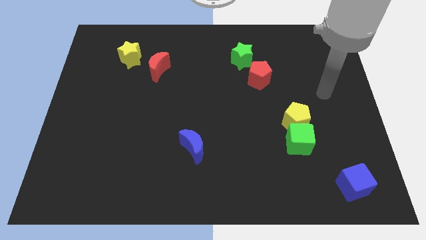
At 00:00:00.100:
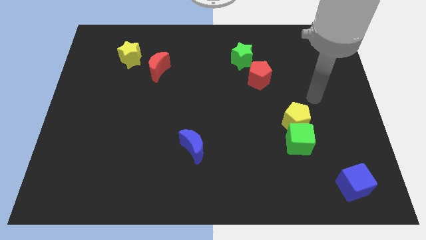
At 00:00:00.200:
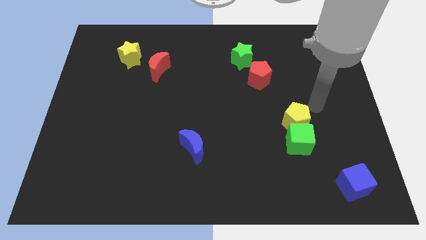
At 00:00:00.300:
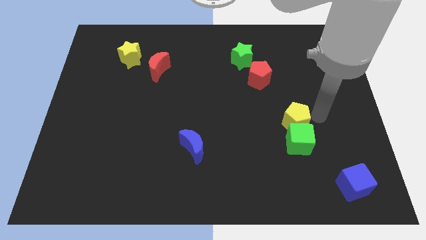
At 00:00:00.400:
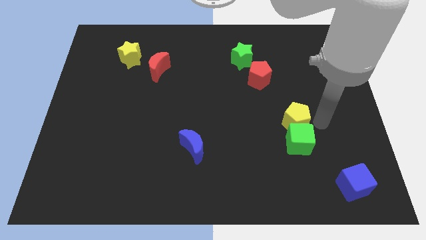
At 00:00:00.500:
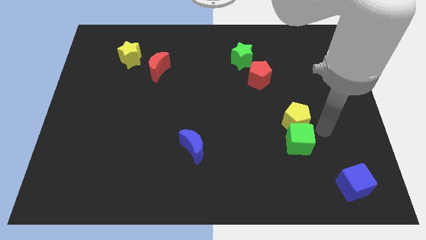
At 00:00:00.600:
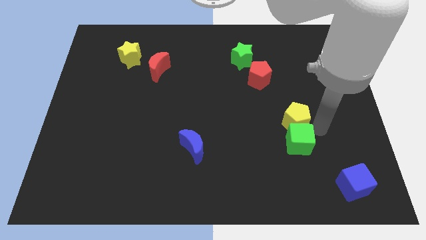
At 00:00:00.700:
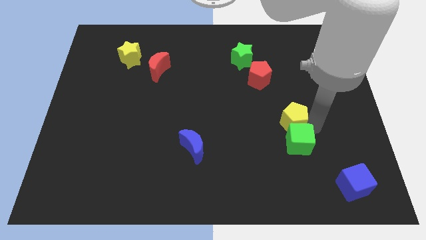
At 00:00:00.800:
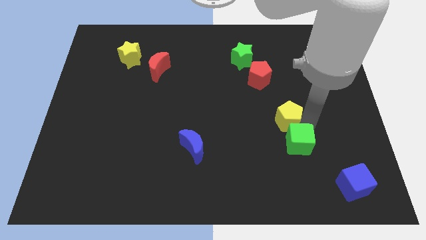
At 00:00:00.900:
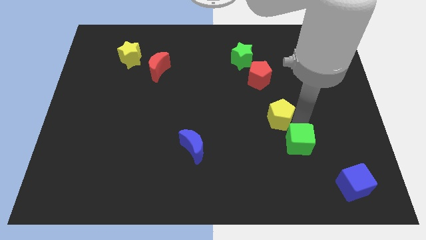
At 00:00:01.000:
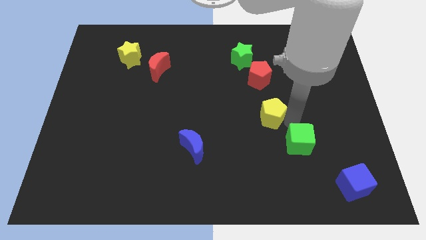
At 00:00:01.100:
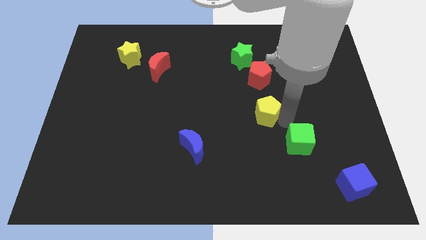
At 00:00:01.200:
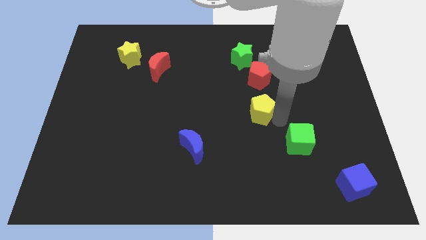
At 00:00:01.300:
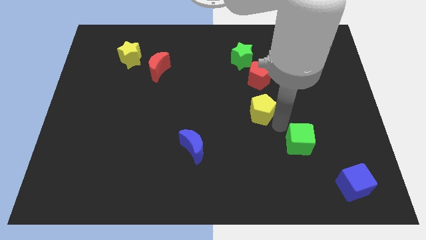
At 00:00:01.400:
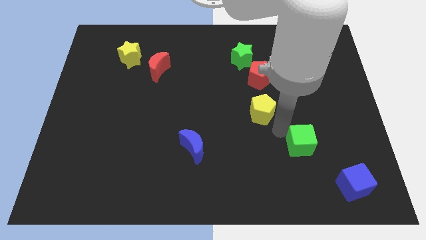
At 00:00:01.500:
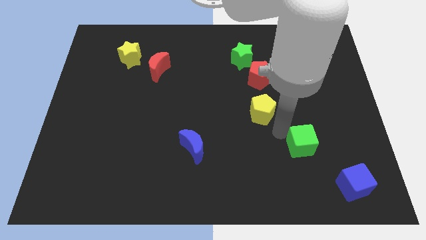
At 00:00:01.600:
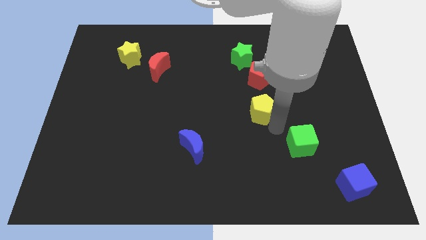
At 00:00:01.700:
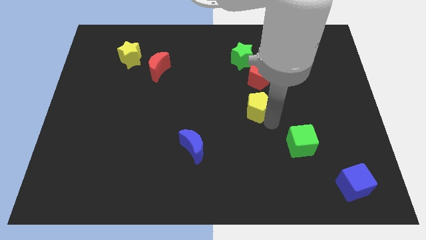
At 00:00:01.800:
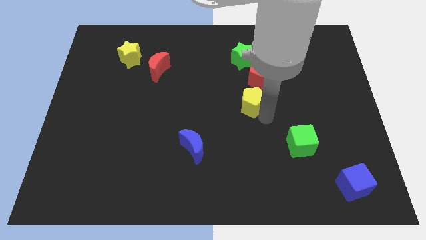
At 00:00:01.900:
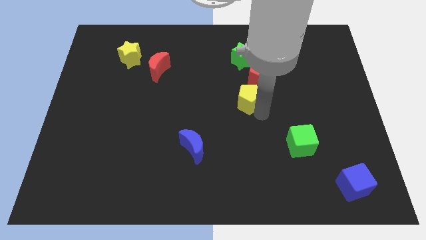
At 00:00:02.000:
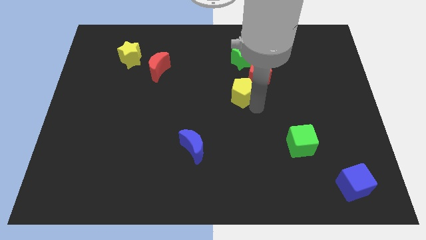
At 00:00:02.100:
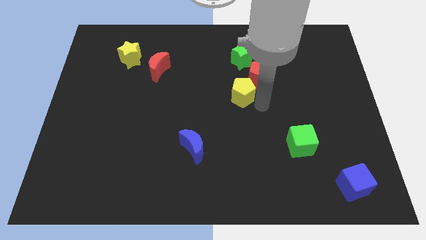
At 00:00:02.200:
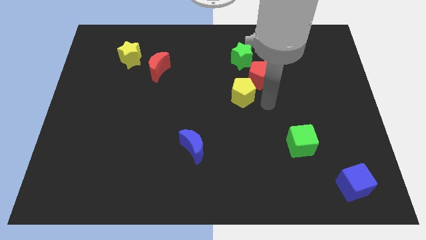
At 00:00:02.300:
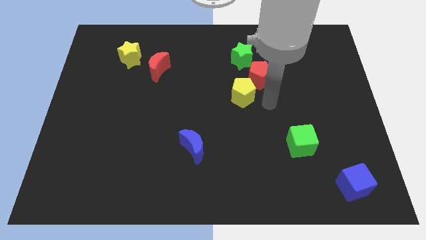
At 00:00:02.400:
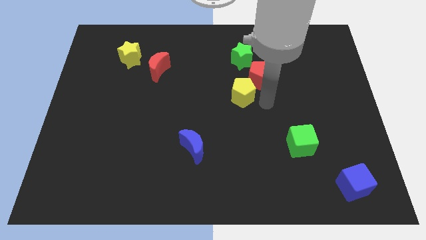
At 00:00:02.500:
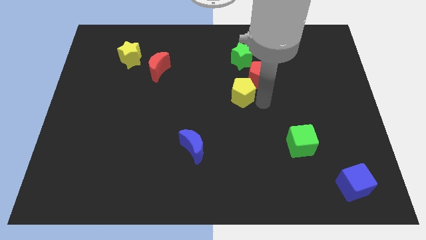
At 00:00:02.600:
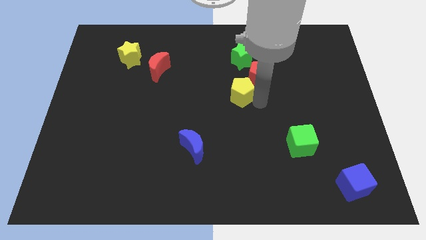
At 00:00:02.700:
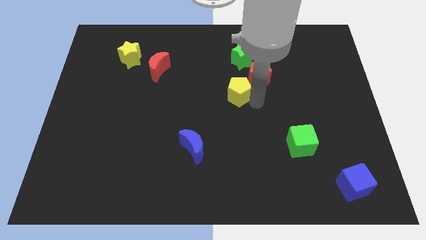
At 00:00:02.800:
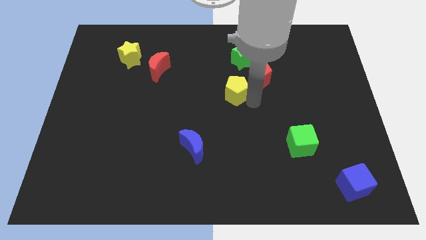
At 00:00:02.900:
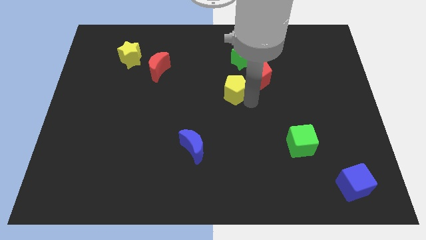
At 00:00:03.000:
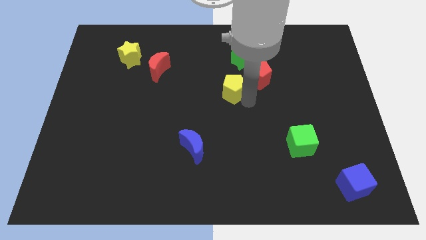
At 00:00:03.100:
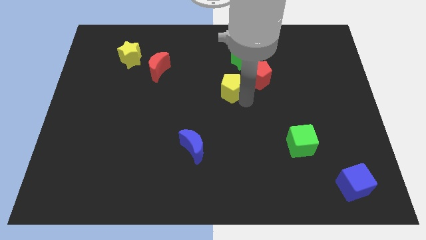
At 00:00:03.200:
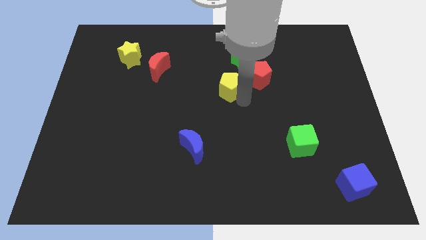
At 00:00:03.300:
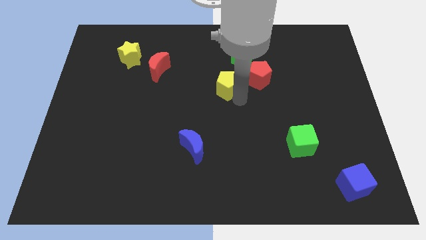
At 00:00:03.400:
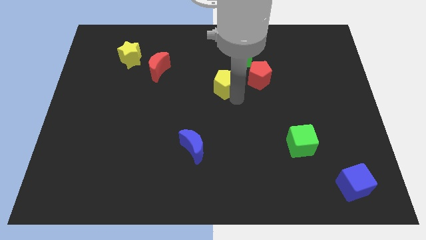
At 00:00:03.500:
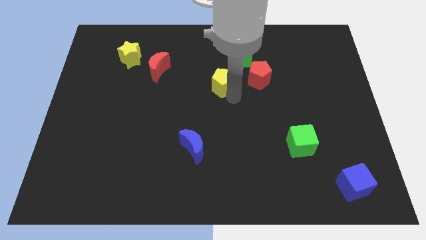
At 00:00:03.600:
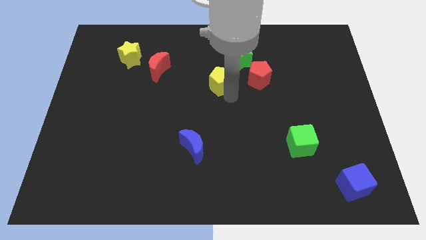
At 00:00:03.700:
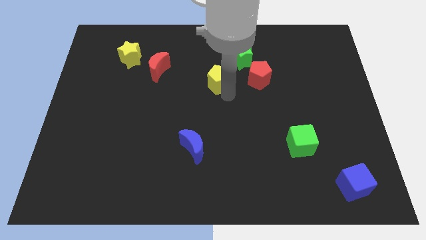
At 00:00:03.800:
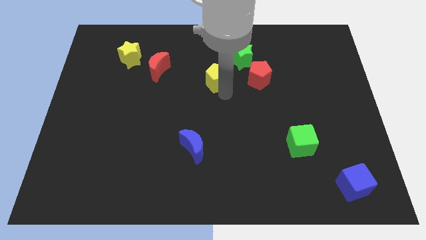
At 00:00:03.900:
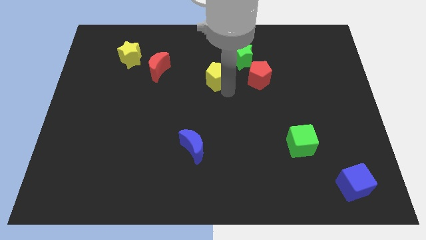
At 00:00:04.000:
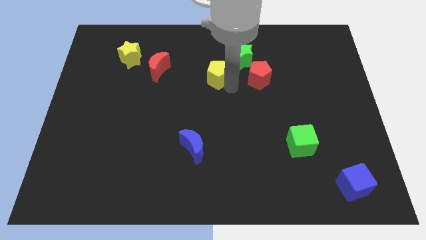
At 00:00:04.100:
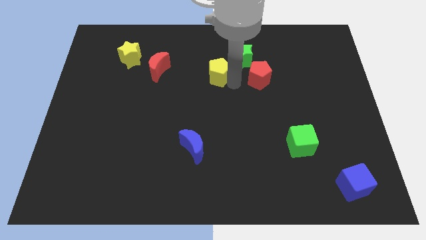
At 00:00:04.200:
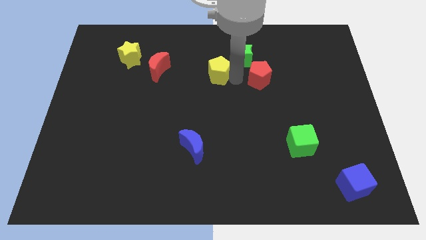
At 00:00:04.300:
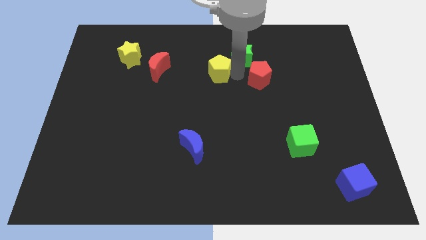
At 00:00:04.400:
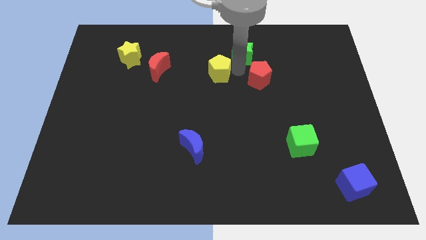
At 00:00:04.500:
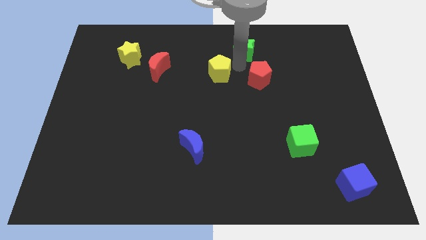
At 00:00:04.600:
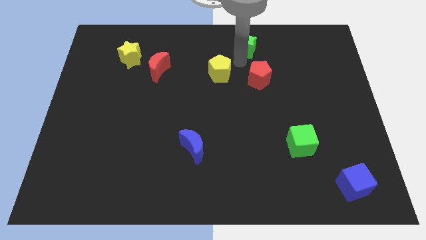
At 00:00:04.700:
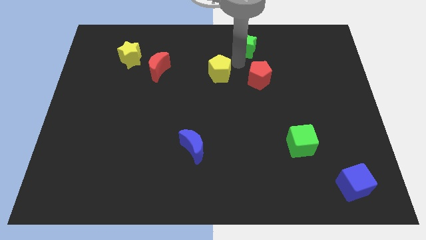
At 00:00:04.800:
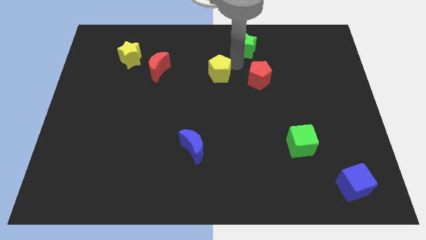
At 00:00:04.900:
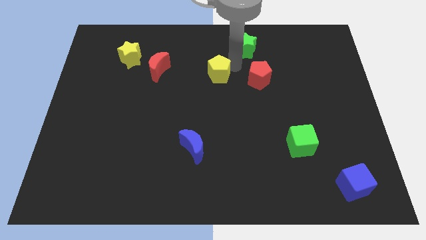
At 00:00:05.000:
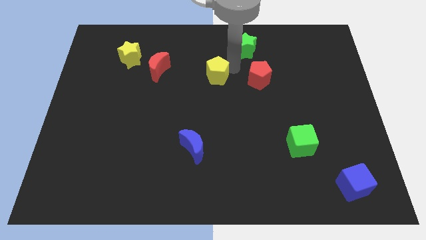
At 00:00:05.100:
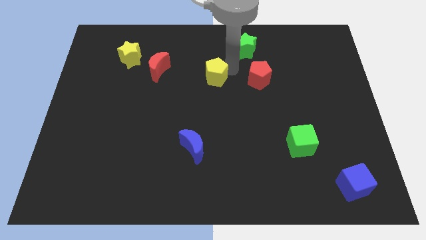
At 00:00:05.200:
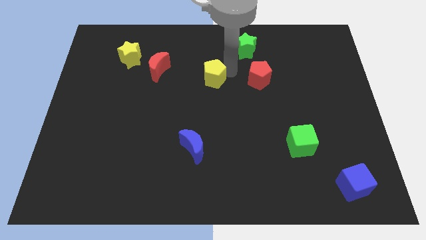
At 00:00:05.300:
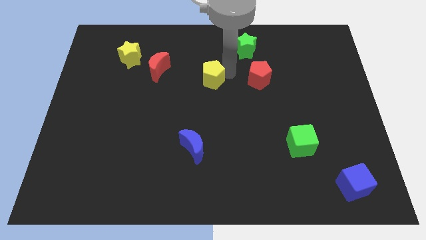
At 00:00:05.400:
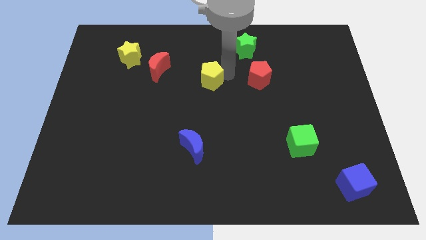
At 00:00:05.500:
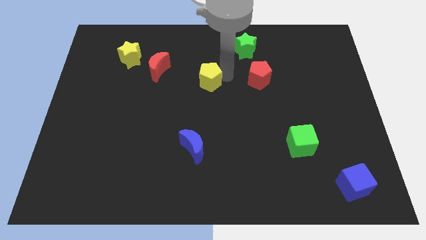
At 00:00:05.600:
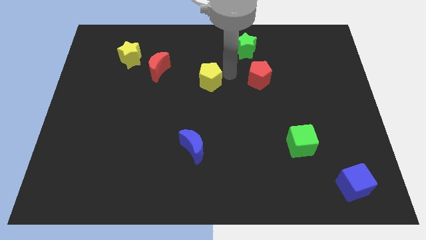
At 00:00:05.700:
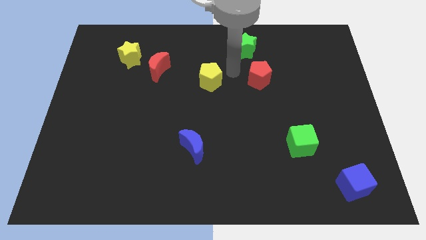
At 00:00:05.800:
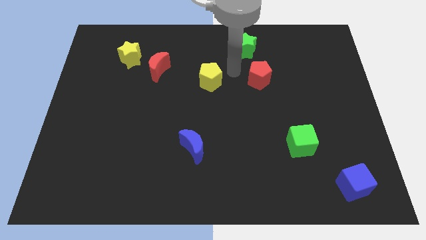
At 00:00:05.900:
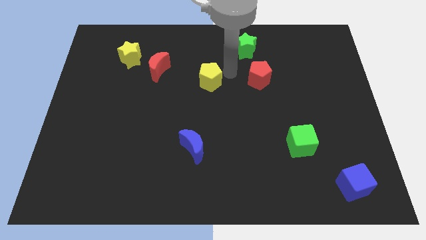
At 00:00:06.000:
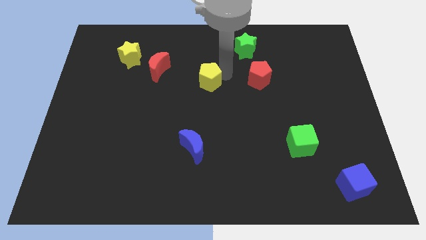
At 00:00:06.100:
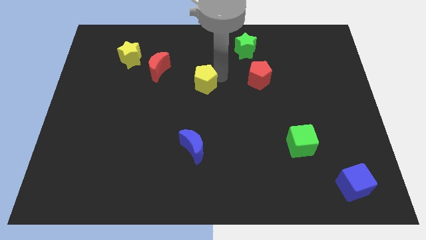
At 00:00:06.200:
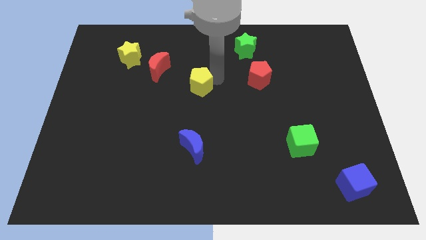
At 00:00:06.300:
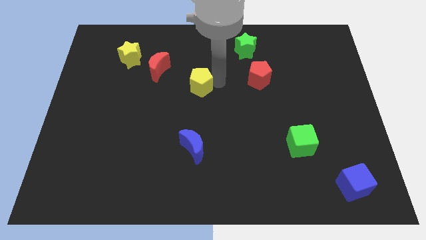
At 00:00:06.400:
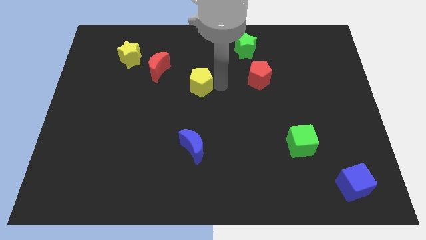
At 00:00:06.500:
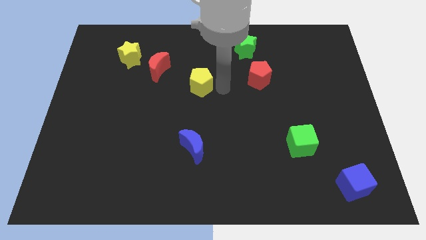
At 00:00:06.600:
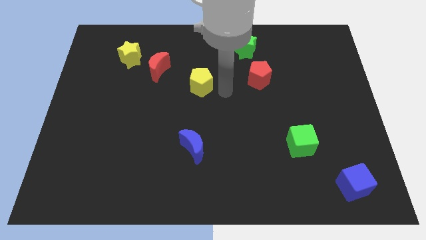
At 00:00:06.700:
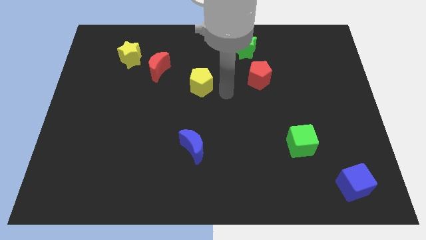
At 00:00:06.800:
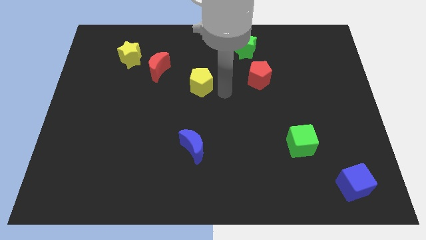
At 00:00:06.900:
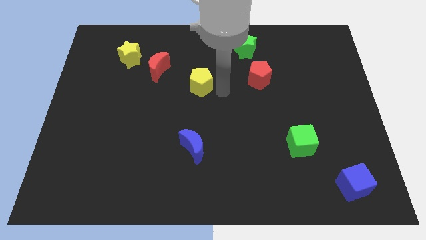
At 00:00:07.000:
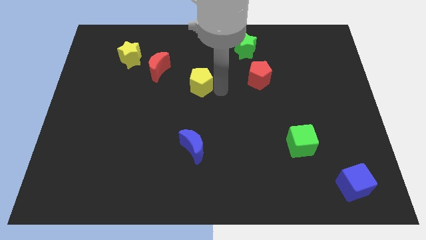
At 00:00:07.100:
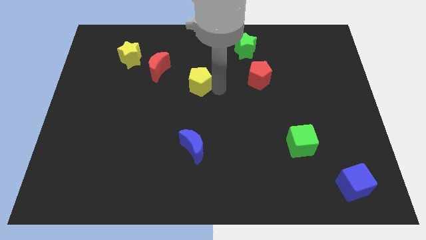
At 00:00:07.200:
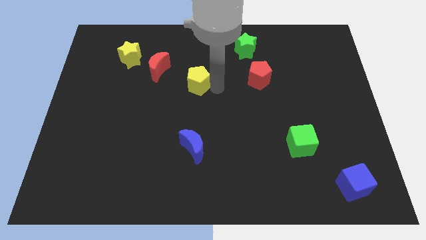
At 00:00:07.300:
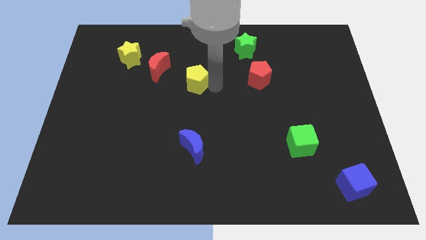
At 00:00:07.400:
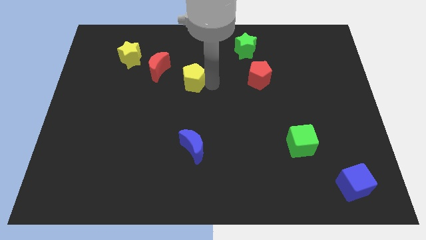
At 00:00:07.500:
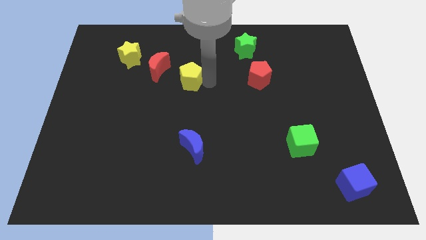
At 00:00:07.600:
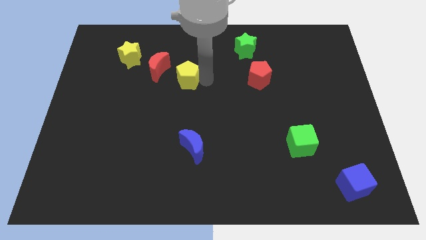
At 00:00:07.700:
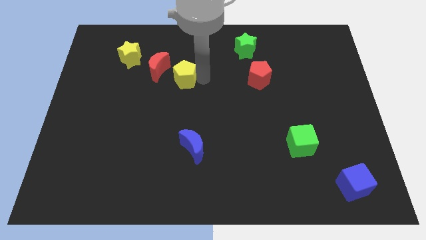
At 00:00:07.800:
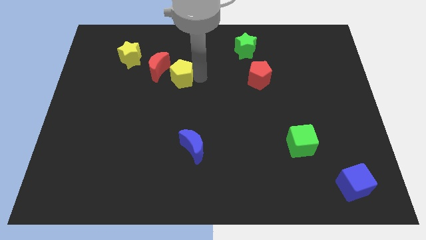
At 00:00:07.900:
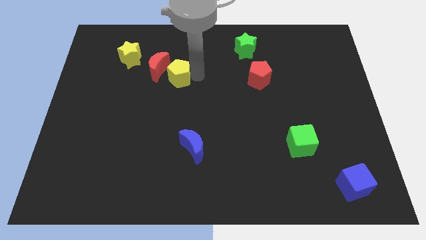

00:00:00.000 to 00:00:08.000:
push the yellow pentagon towards the red moon
